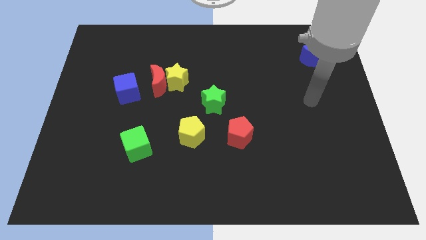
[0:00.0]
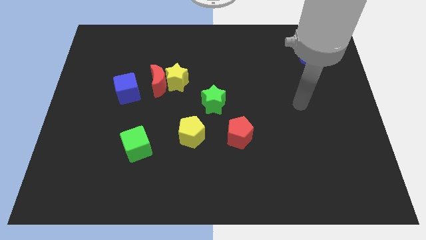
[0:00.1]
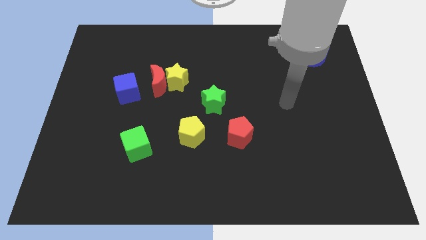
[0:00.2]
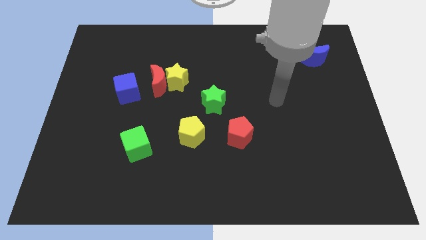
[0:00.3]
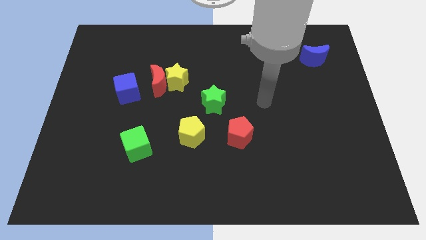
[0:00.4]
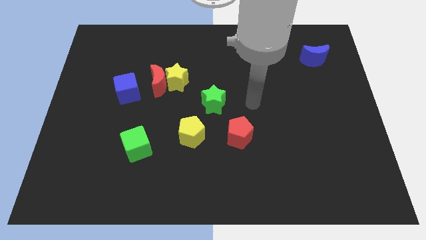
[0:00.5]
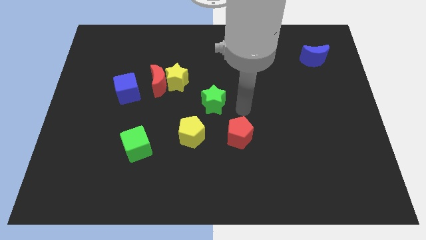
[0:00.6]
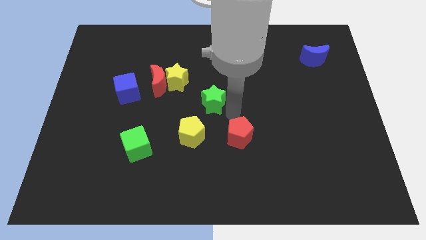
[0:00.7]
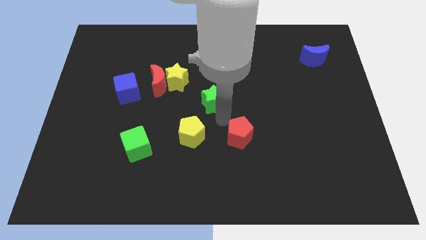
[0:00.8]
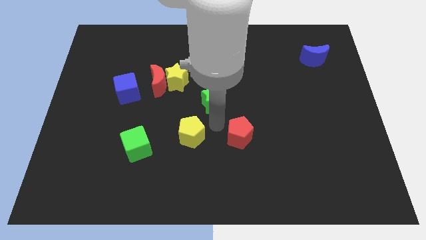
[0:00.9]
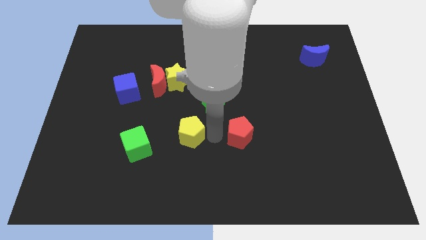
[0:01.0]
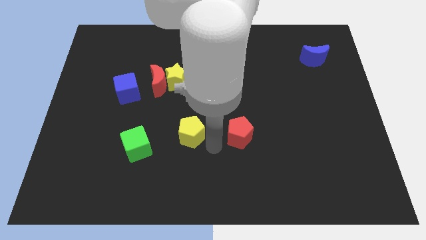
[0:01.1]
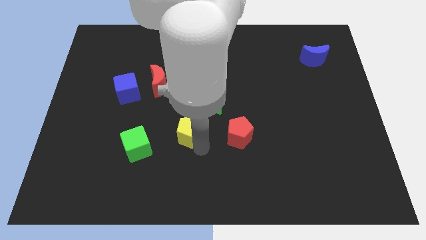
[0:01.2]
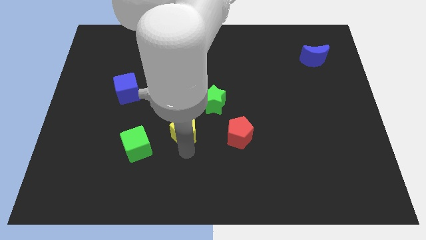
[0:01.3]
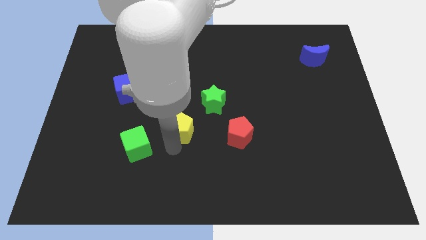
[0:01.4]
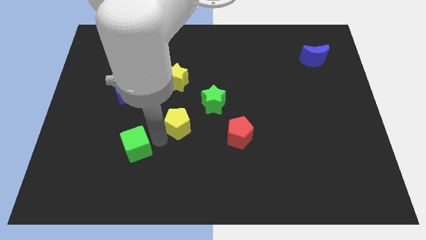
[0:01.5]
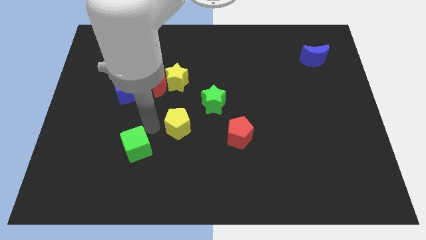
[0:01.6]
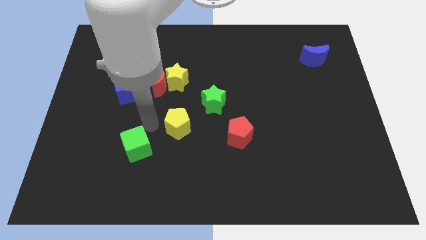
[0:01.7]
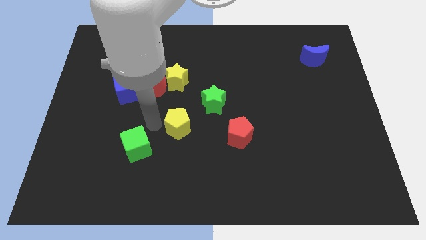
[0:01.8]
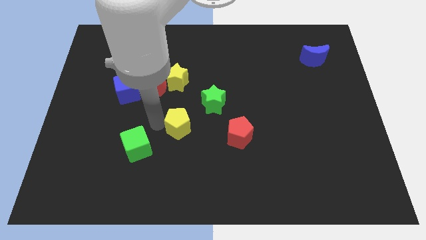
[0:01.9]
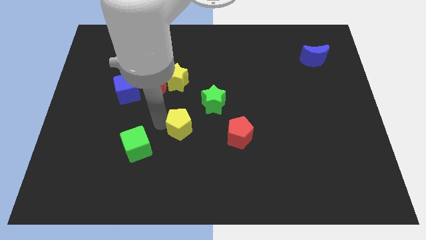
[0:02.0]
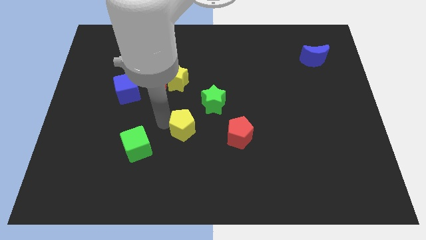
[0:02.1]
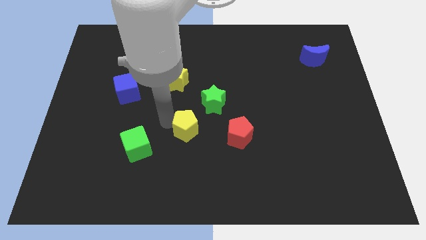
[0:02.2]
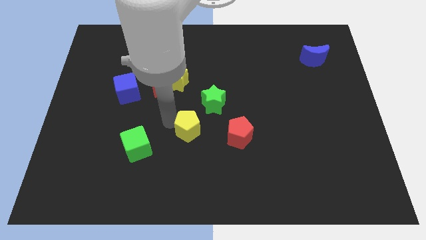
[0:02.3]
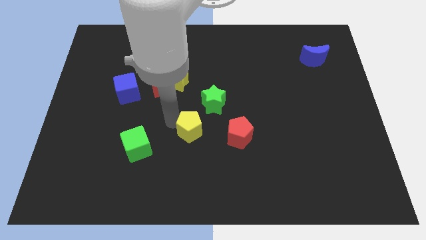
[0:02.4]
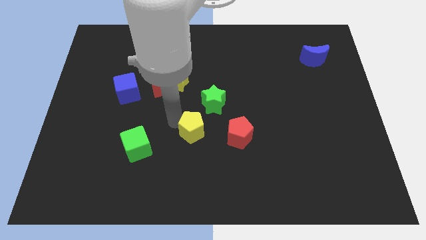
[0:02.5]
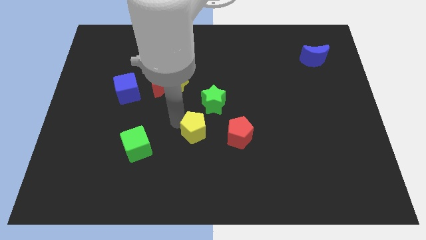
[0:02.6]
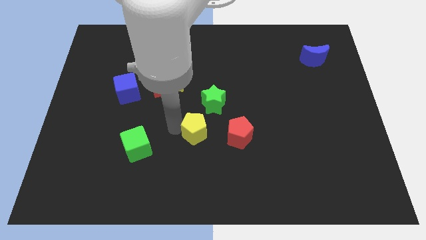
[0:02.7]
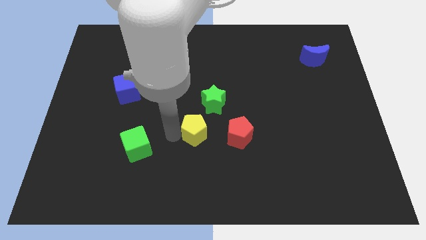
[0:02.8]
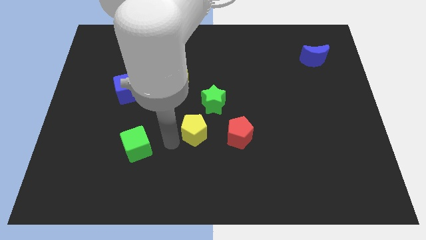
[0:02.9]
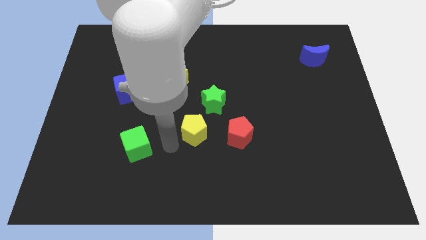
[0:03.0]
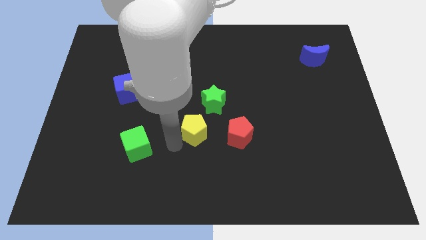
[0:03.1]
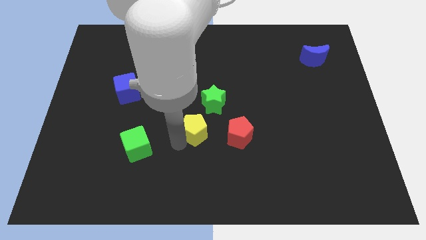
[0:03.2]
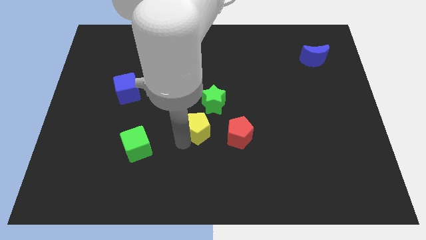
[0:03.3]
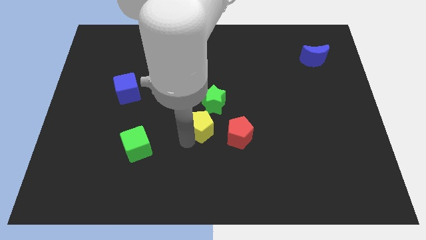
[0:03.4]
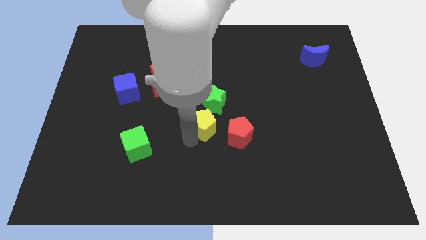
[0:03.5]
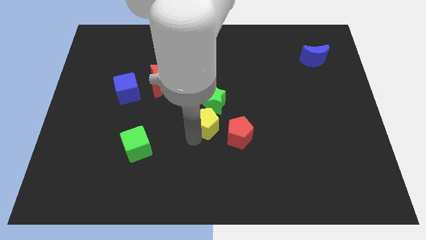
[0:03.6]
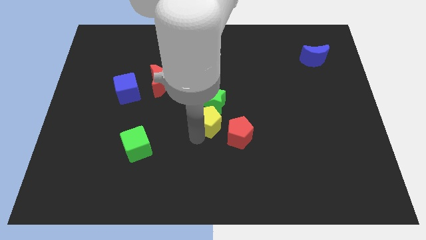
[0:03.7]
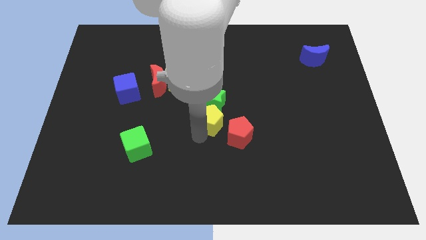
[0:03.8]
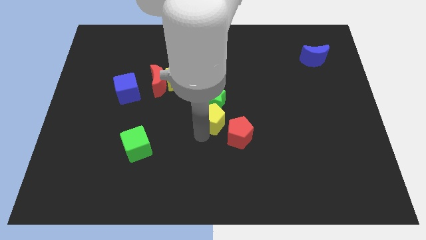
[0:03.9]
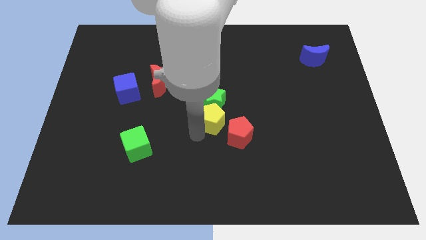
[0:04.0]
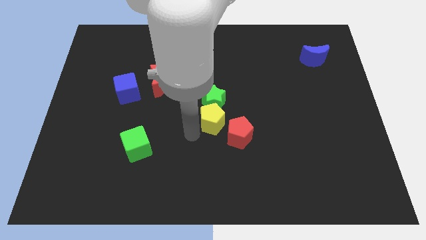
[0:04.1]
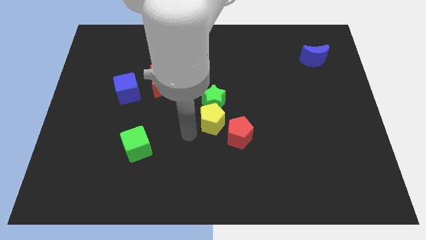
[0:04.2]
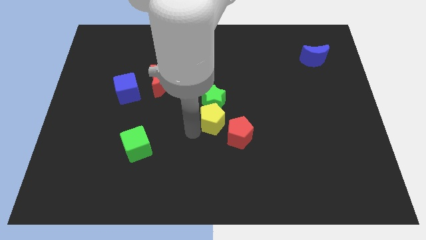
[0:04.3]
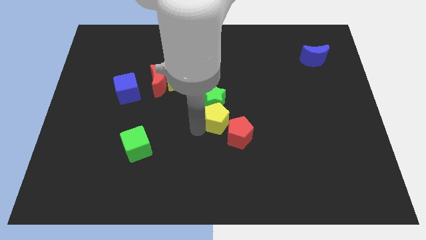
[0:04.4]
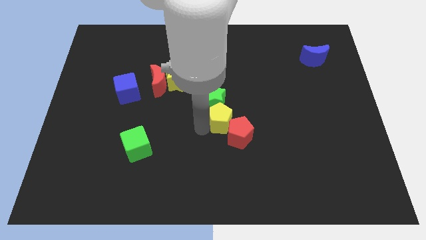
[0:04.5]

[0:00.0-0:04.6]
push the yellow pentagon somewhat up and then to the right

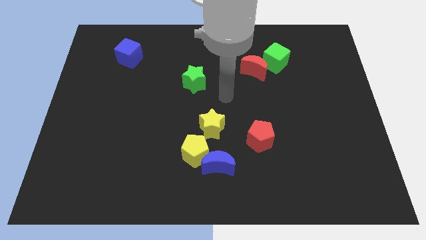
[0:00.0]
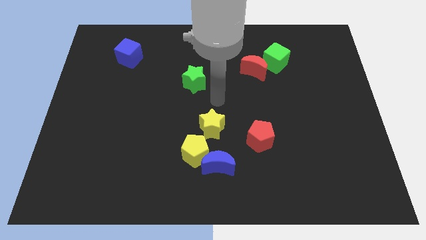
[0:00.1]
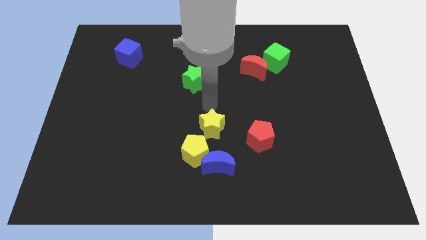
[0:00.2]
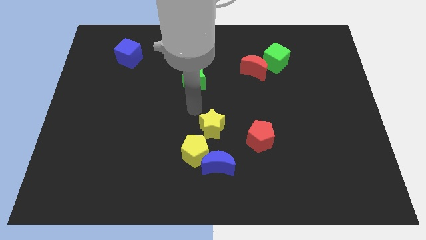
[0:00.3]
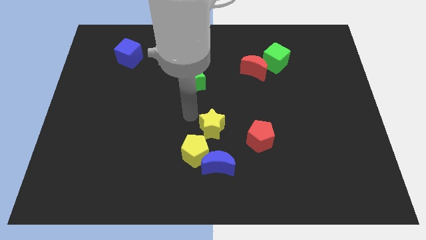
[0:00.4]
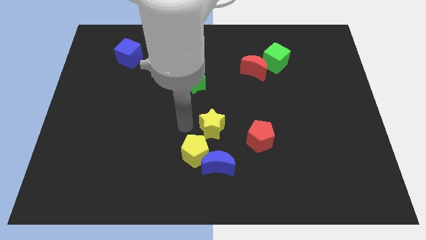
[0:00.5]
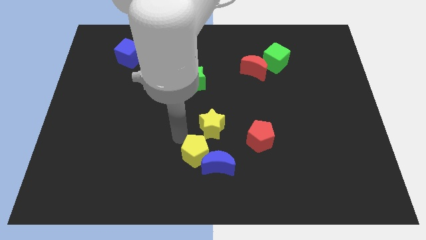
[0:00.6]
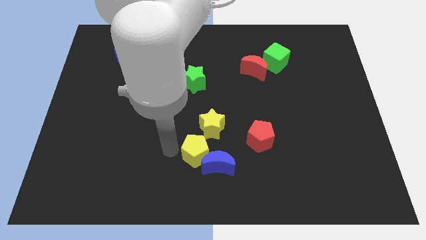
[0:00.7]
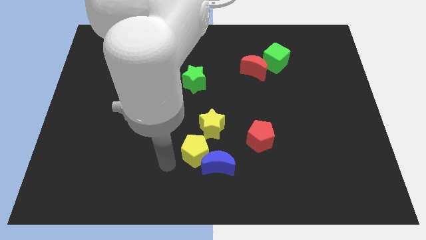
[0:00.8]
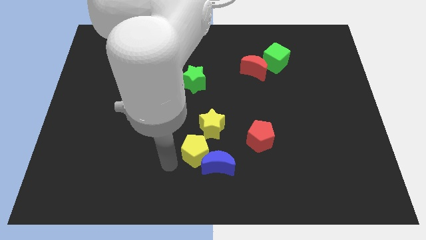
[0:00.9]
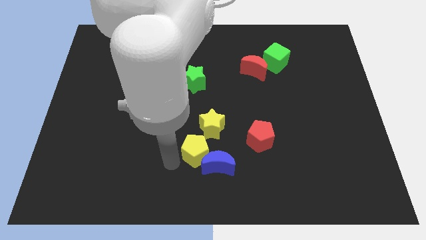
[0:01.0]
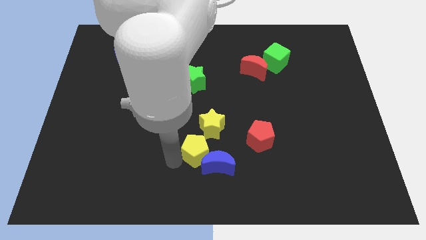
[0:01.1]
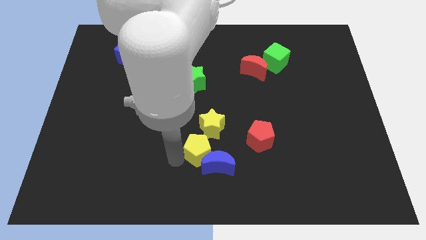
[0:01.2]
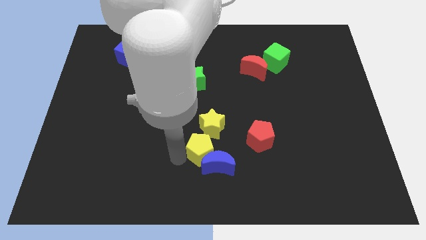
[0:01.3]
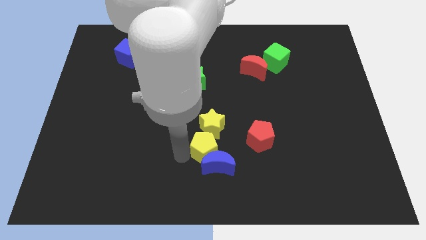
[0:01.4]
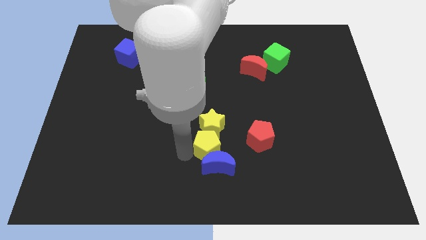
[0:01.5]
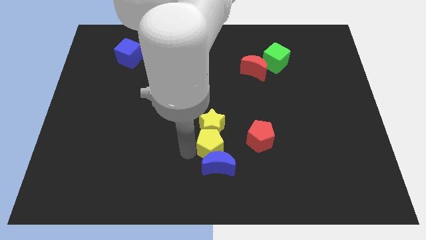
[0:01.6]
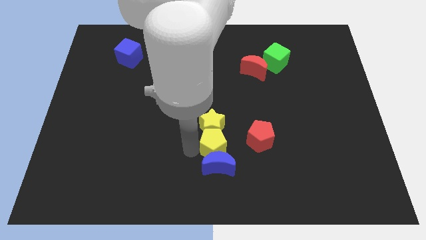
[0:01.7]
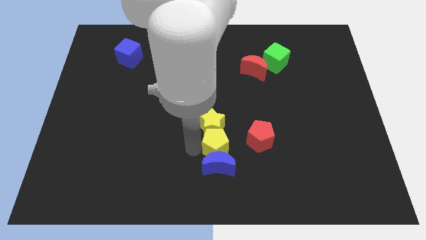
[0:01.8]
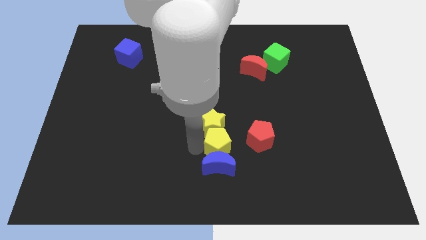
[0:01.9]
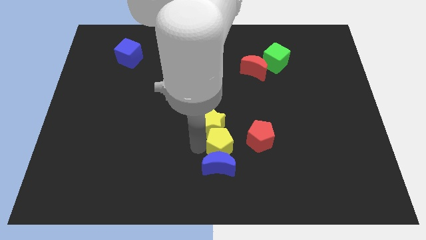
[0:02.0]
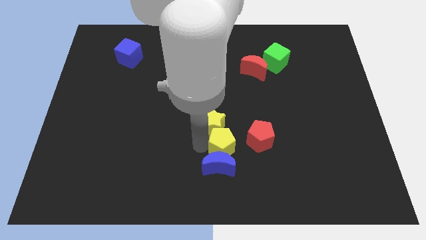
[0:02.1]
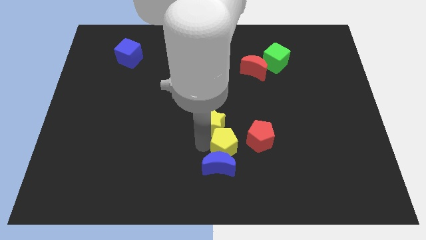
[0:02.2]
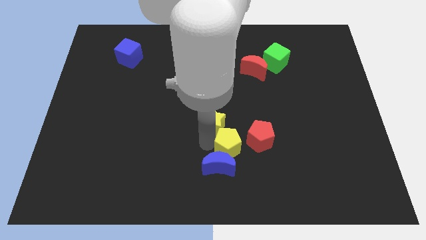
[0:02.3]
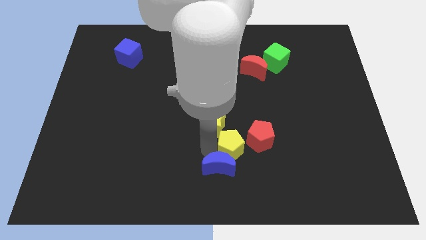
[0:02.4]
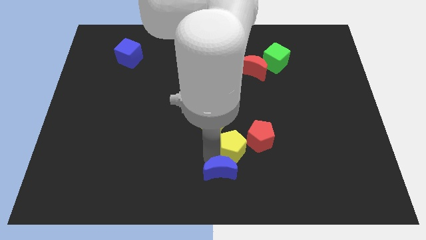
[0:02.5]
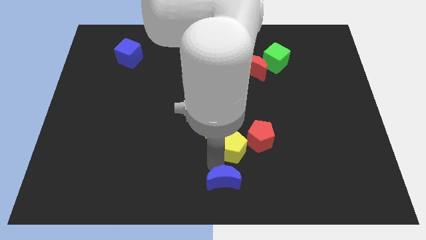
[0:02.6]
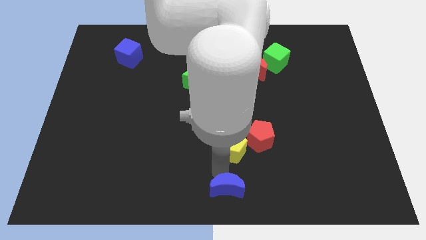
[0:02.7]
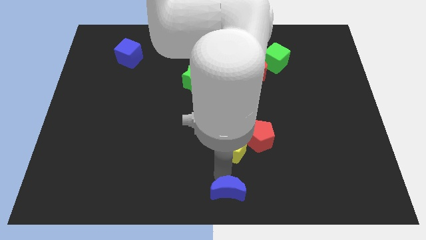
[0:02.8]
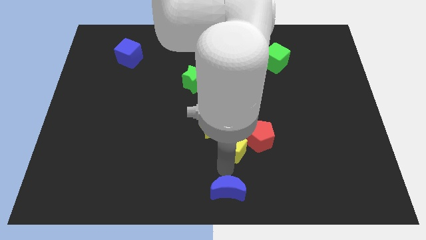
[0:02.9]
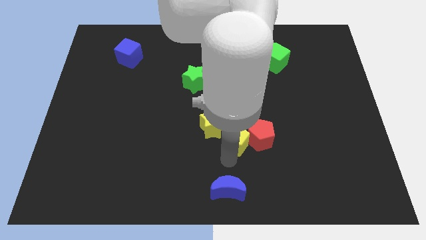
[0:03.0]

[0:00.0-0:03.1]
slide the yellow pentagon up and to the right diagonally a little

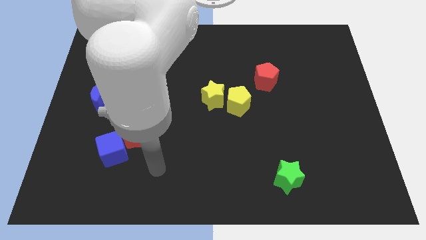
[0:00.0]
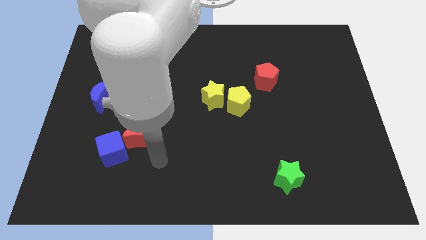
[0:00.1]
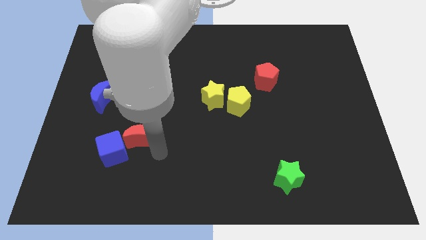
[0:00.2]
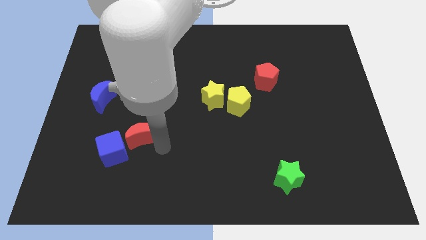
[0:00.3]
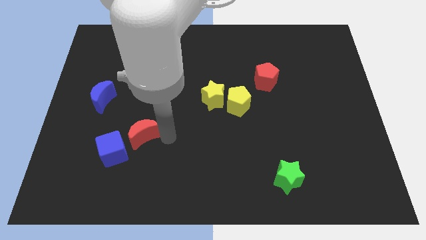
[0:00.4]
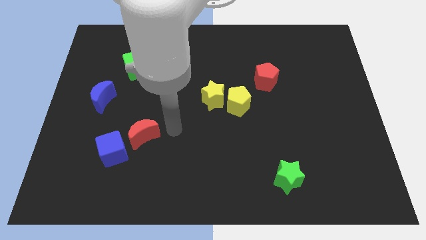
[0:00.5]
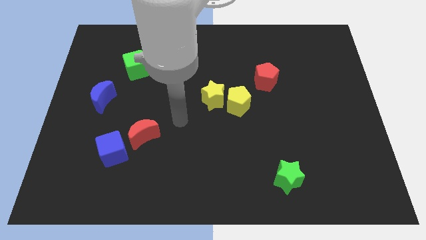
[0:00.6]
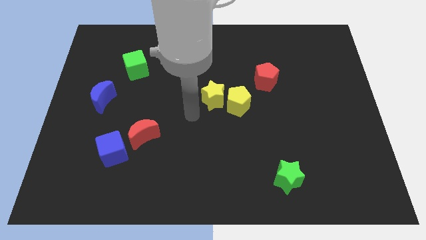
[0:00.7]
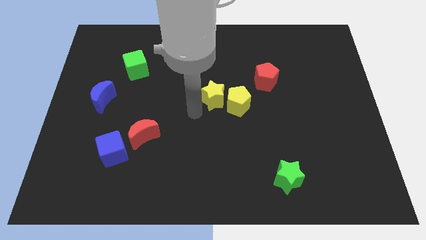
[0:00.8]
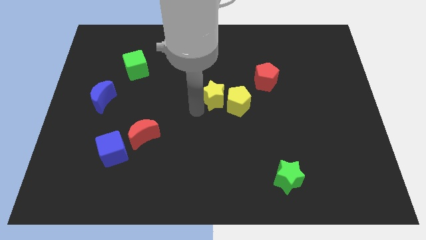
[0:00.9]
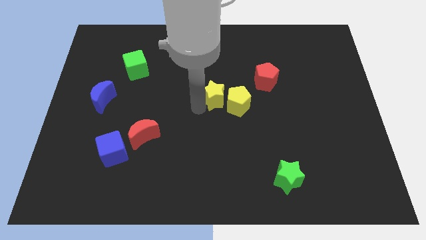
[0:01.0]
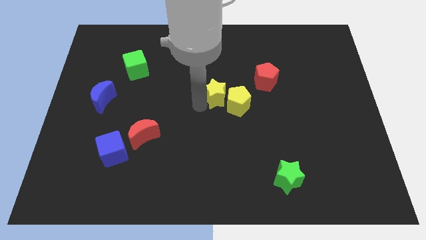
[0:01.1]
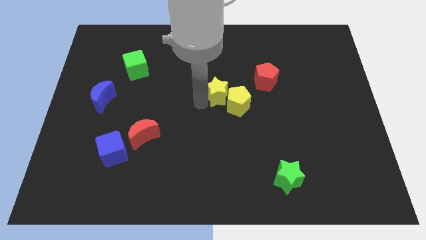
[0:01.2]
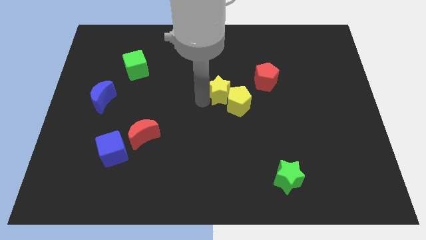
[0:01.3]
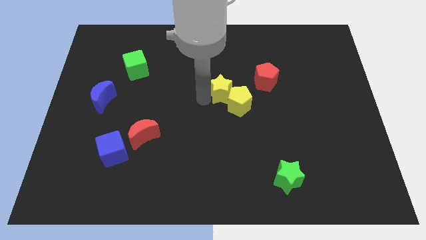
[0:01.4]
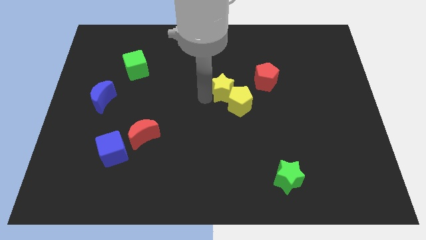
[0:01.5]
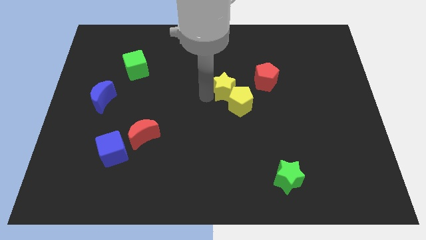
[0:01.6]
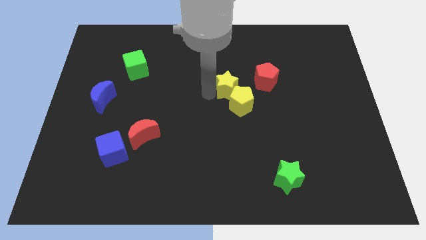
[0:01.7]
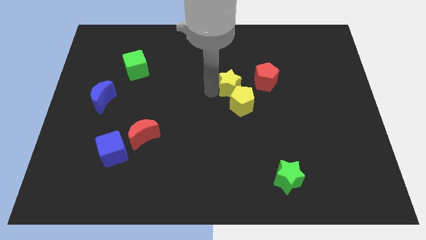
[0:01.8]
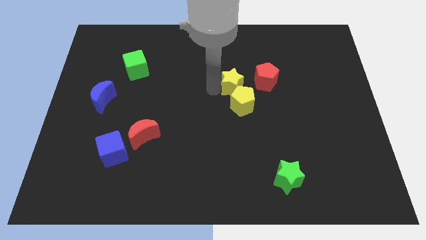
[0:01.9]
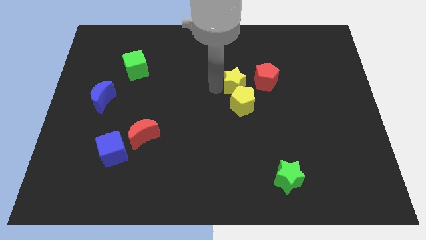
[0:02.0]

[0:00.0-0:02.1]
slightly push the yellow star upwards and then right
